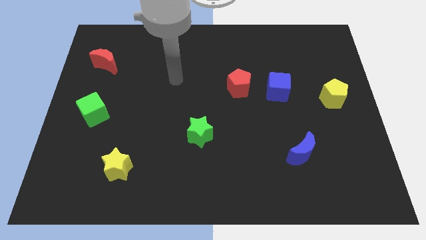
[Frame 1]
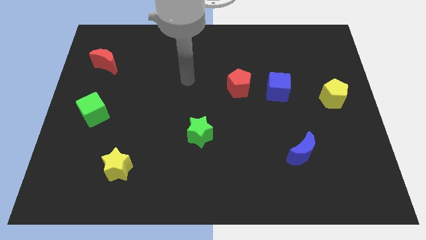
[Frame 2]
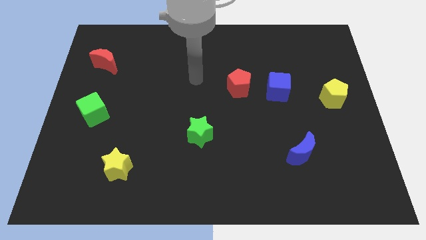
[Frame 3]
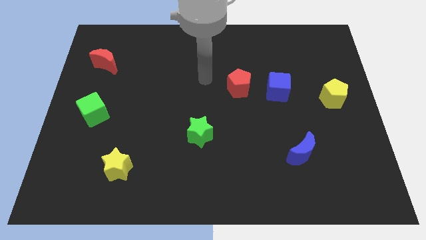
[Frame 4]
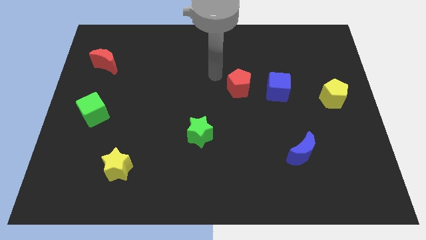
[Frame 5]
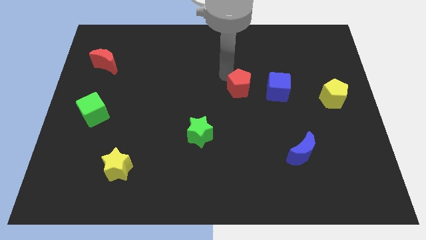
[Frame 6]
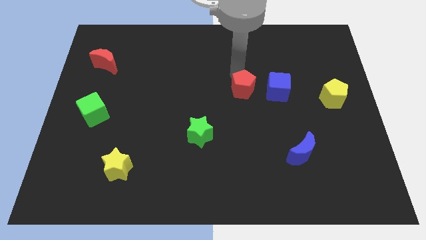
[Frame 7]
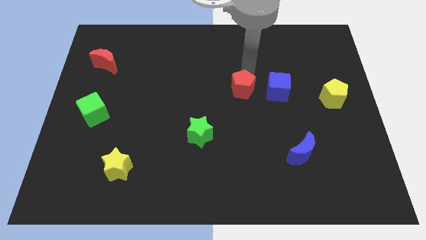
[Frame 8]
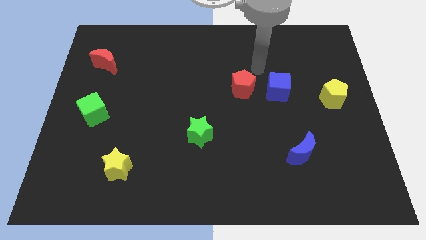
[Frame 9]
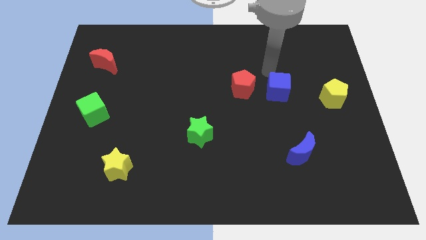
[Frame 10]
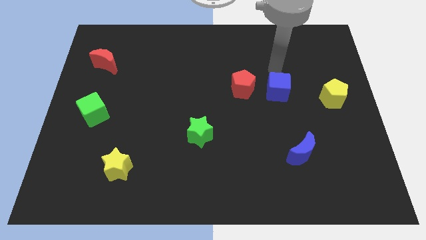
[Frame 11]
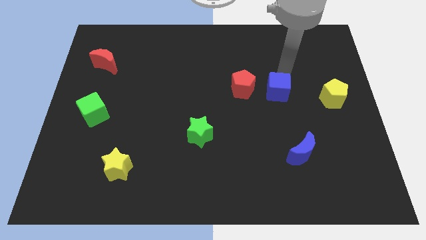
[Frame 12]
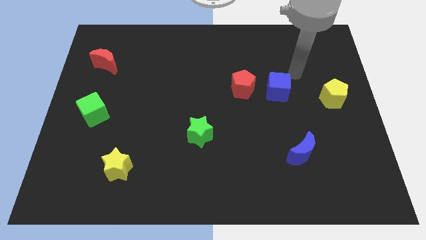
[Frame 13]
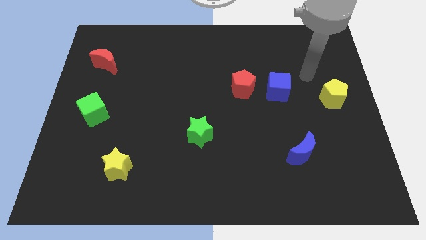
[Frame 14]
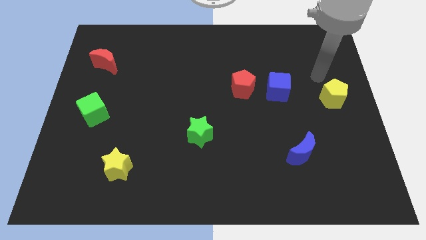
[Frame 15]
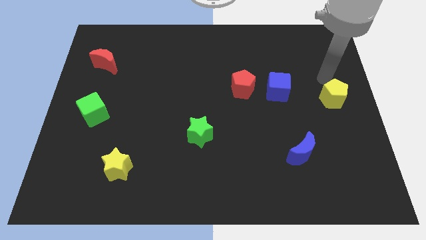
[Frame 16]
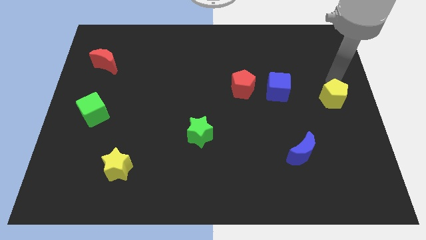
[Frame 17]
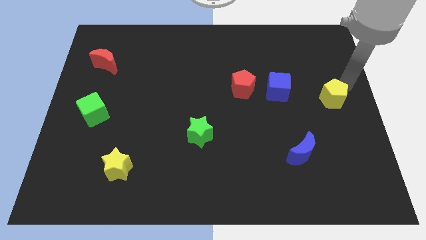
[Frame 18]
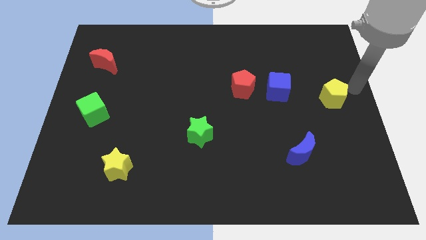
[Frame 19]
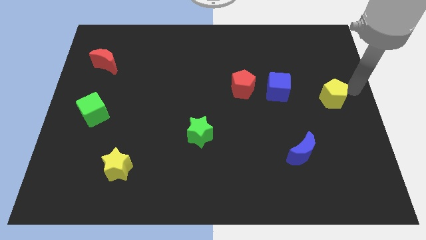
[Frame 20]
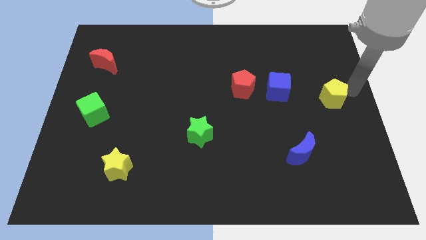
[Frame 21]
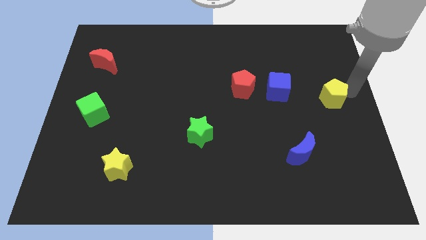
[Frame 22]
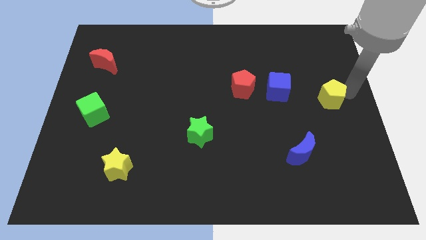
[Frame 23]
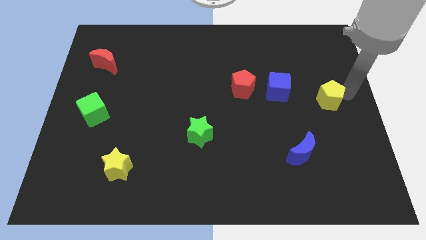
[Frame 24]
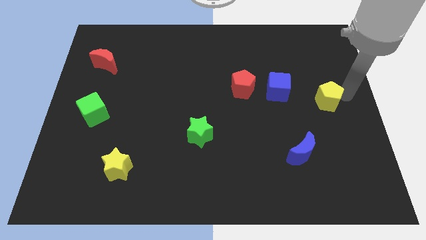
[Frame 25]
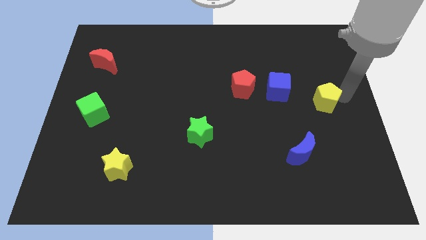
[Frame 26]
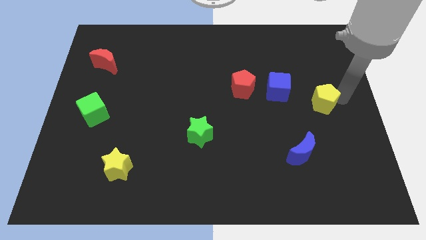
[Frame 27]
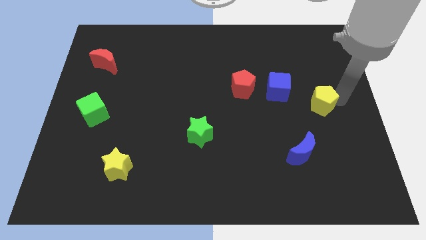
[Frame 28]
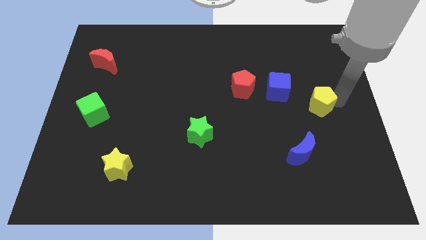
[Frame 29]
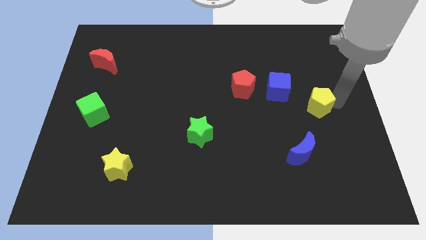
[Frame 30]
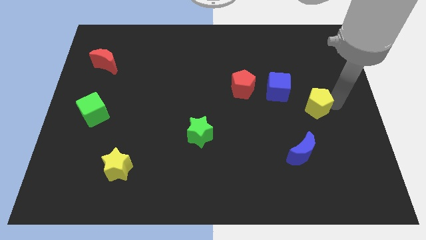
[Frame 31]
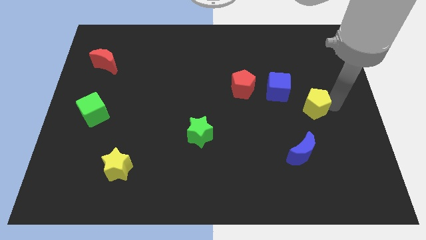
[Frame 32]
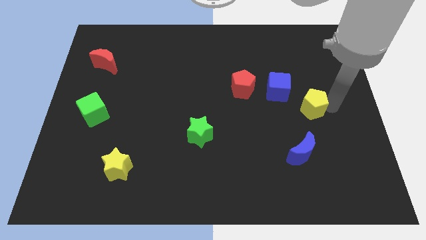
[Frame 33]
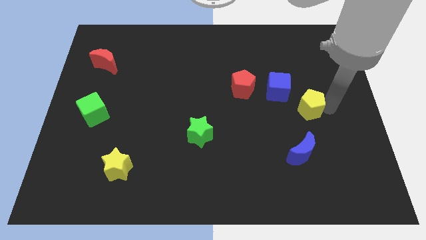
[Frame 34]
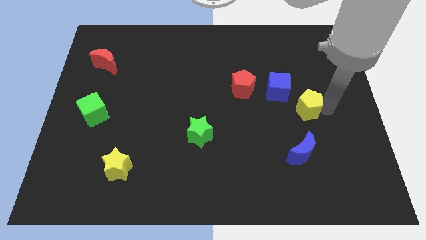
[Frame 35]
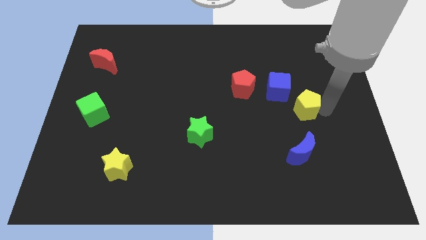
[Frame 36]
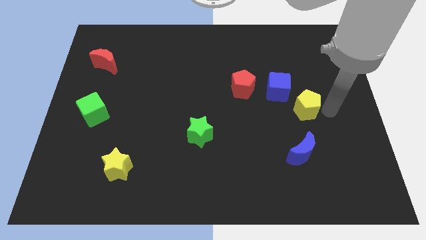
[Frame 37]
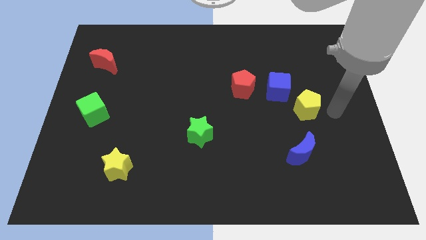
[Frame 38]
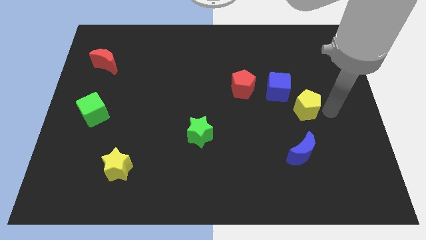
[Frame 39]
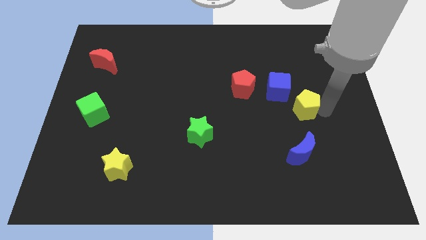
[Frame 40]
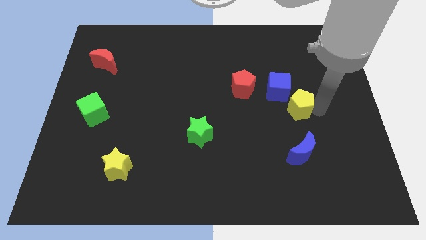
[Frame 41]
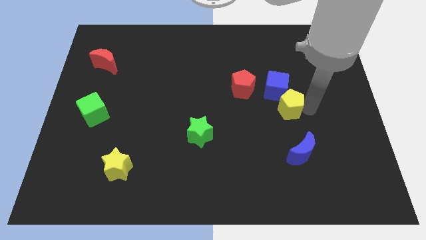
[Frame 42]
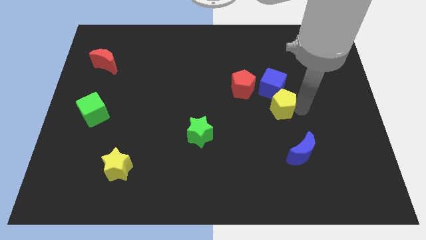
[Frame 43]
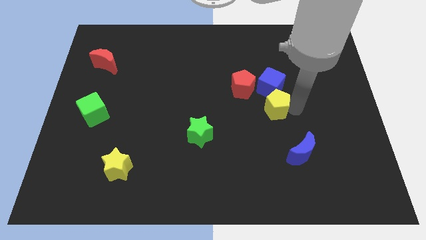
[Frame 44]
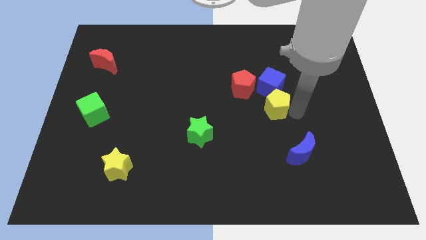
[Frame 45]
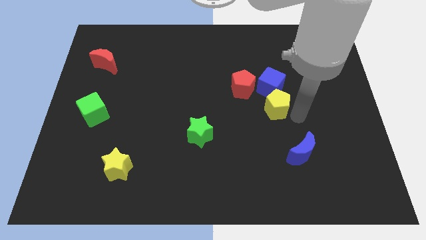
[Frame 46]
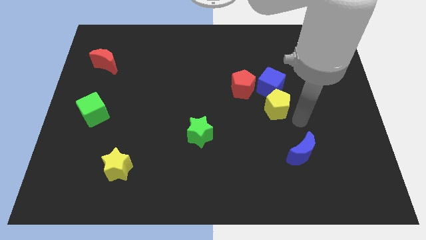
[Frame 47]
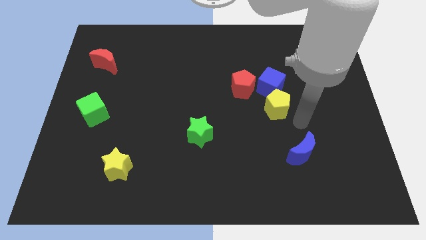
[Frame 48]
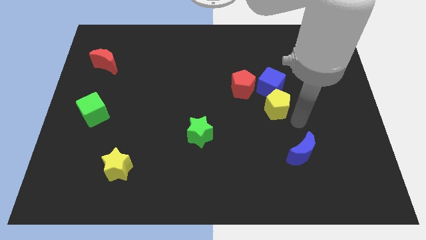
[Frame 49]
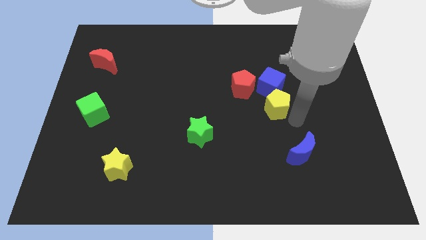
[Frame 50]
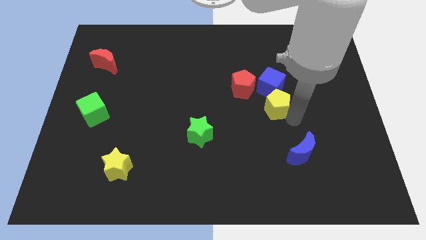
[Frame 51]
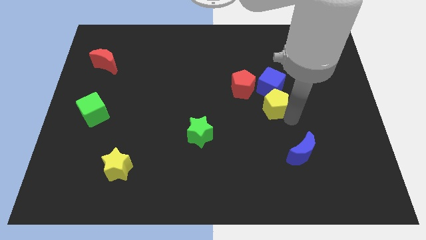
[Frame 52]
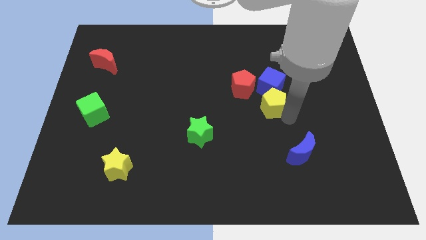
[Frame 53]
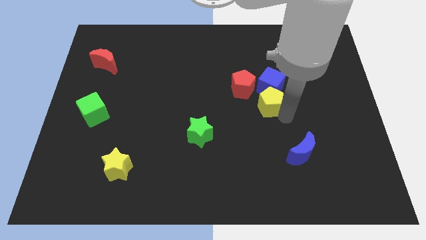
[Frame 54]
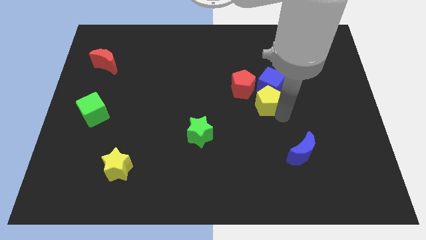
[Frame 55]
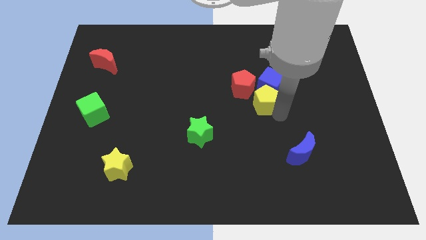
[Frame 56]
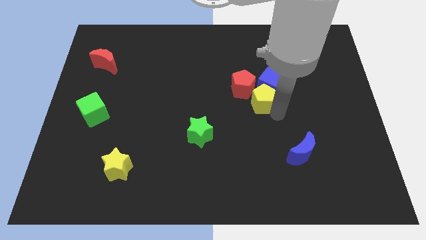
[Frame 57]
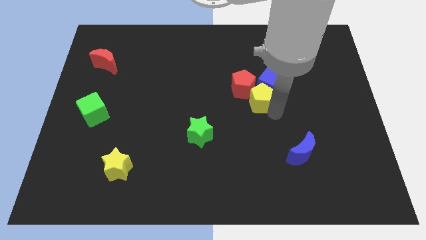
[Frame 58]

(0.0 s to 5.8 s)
push the yellow pentagon close to the red pentagon
